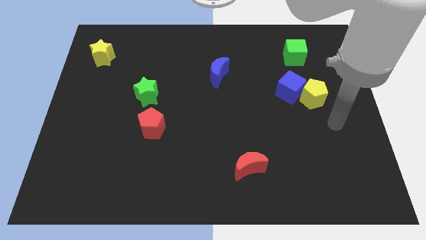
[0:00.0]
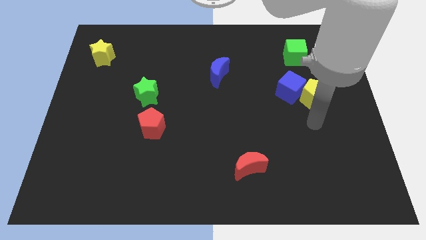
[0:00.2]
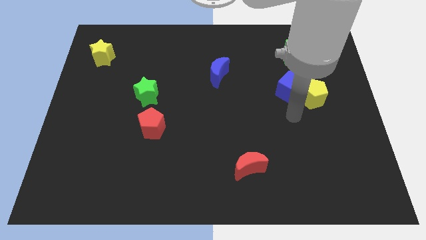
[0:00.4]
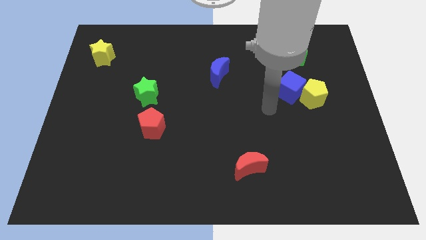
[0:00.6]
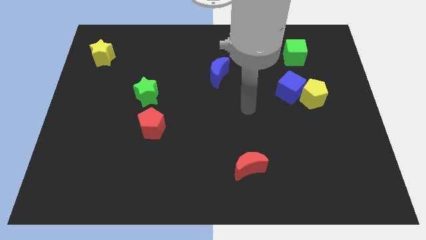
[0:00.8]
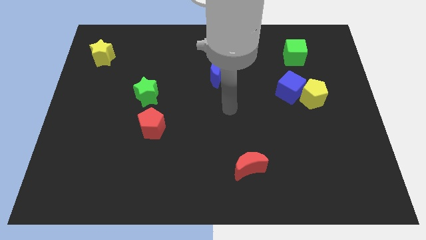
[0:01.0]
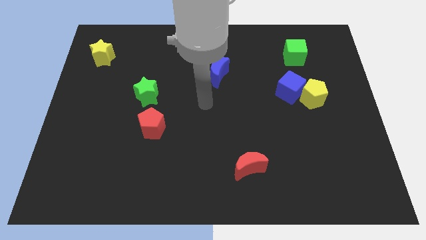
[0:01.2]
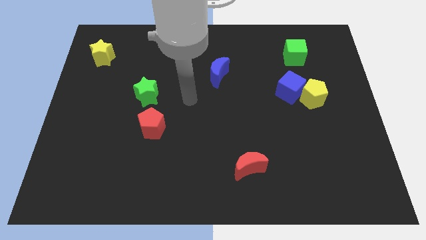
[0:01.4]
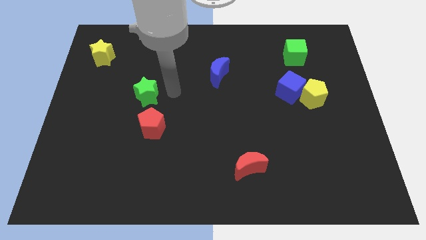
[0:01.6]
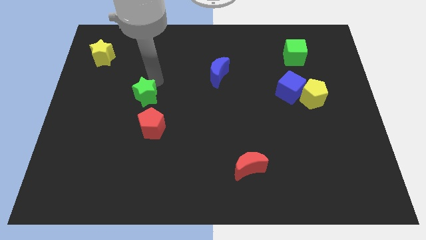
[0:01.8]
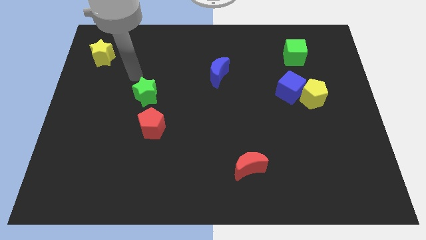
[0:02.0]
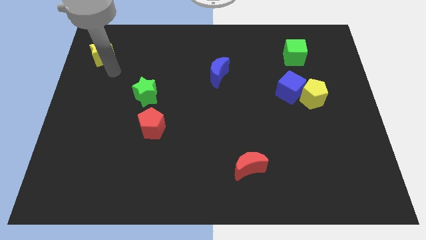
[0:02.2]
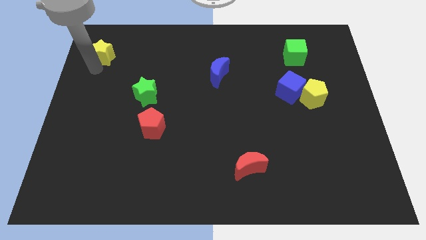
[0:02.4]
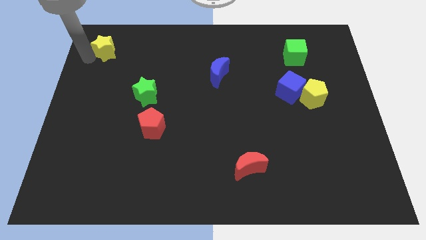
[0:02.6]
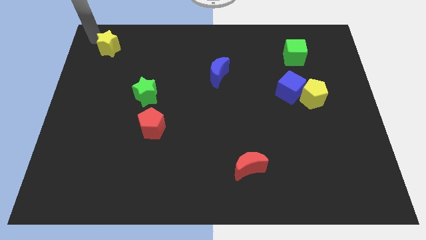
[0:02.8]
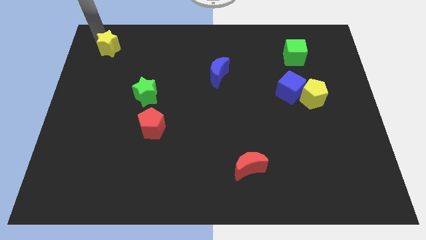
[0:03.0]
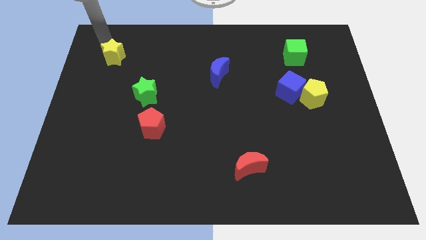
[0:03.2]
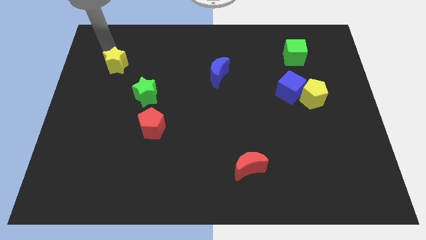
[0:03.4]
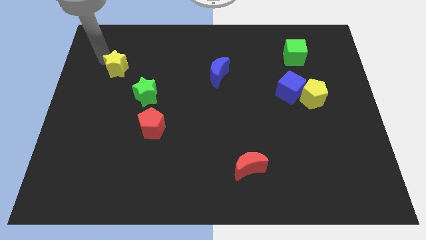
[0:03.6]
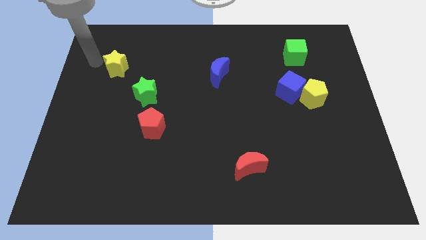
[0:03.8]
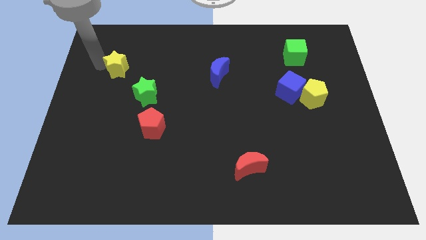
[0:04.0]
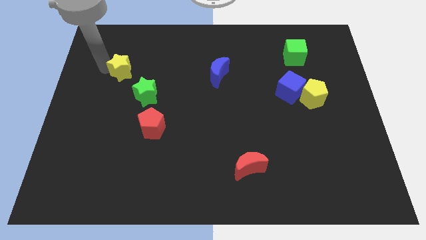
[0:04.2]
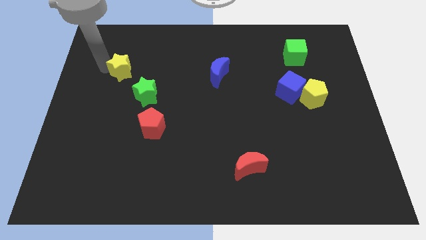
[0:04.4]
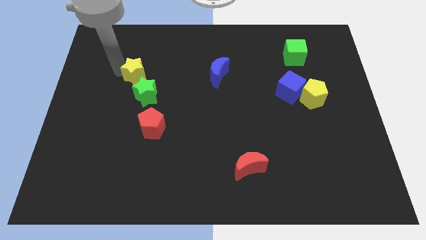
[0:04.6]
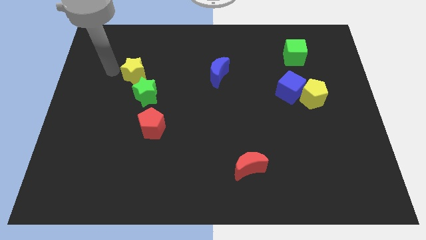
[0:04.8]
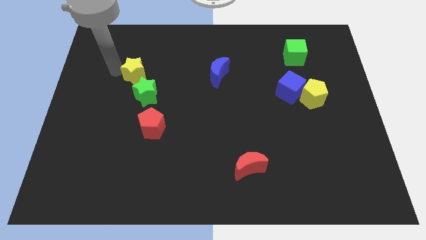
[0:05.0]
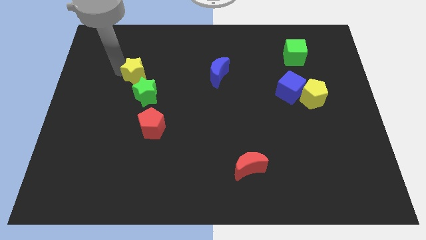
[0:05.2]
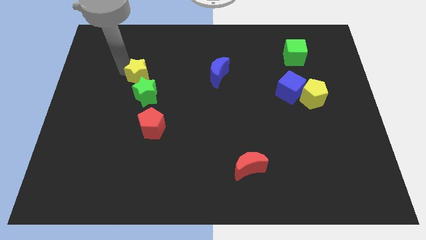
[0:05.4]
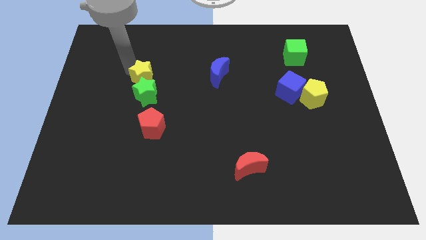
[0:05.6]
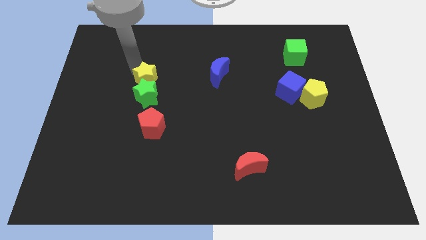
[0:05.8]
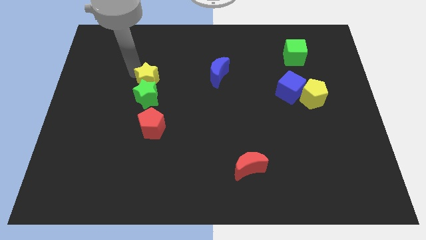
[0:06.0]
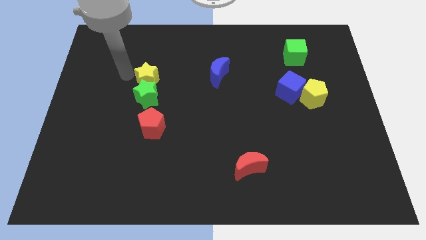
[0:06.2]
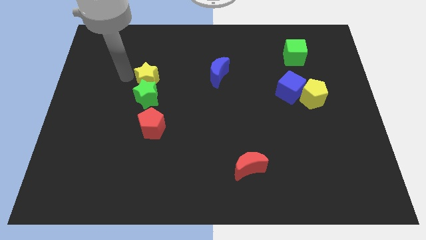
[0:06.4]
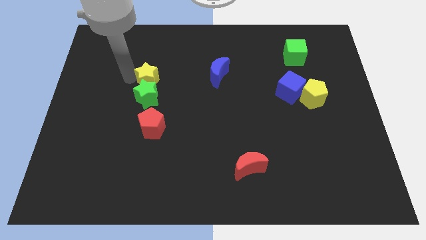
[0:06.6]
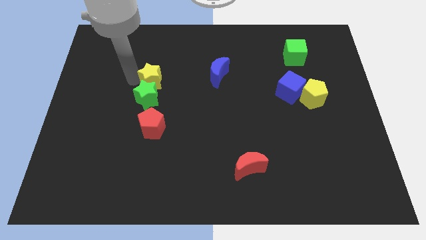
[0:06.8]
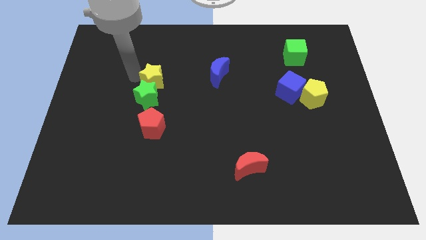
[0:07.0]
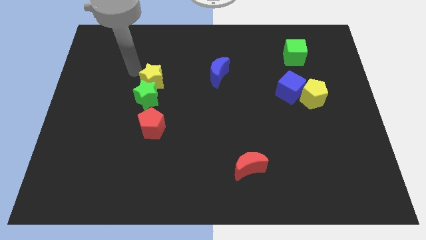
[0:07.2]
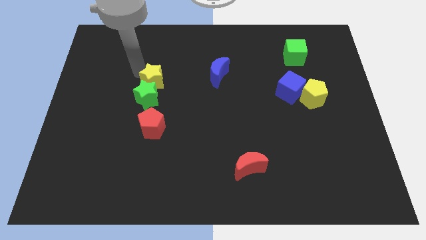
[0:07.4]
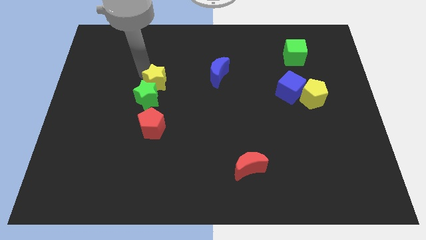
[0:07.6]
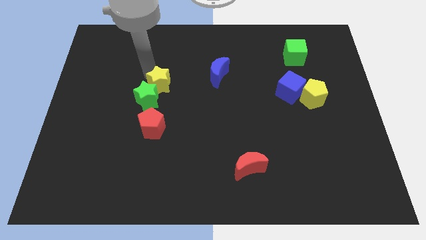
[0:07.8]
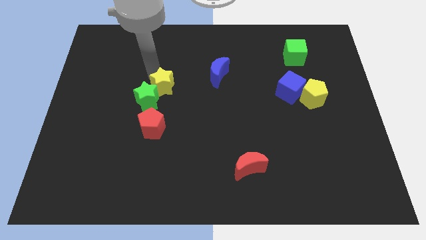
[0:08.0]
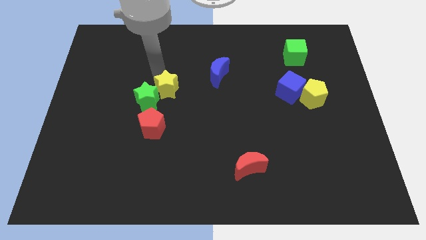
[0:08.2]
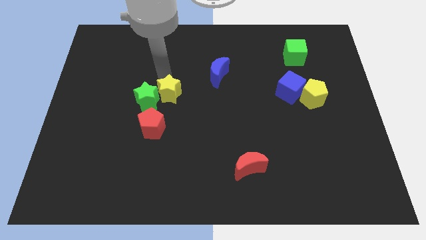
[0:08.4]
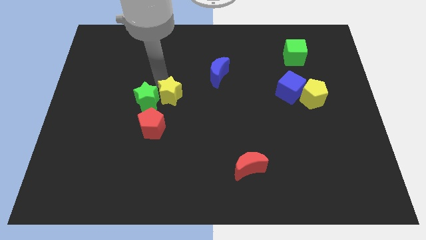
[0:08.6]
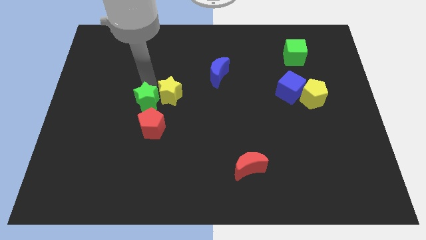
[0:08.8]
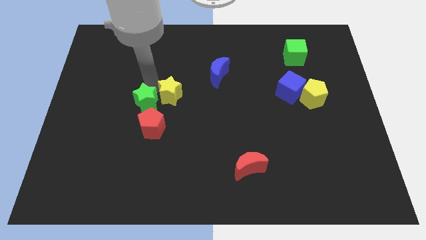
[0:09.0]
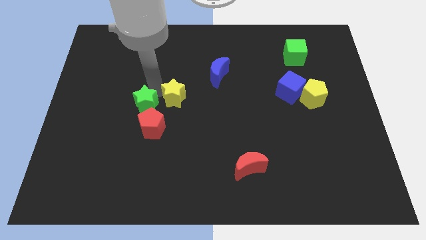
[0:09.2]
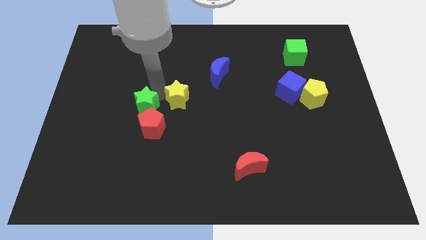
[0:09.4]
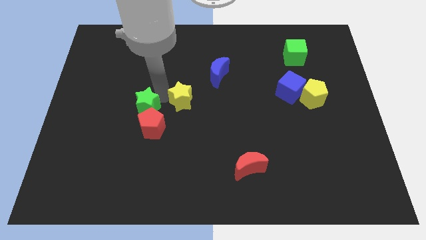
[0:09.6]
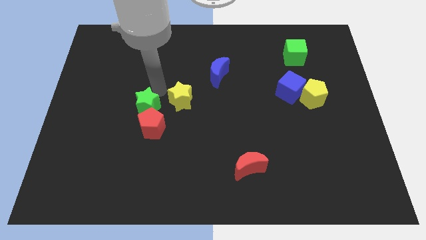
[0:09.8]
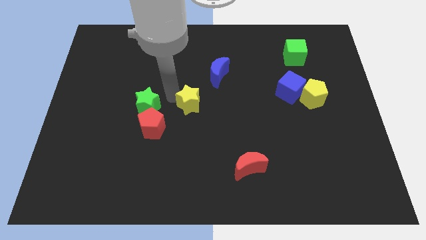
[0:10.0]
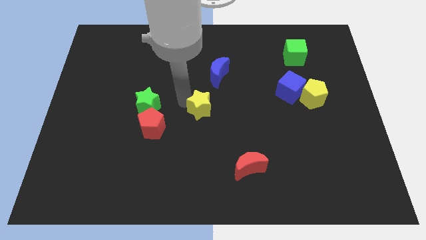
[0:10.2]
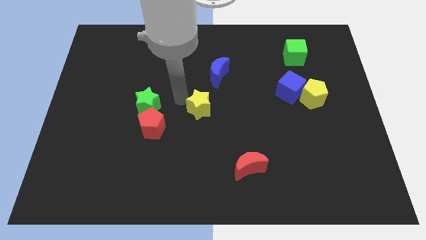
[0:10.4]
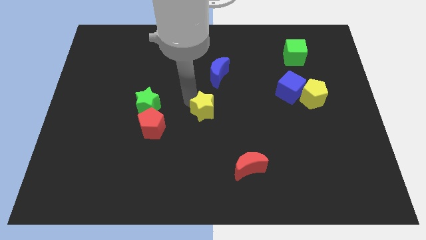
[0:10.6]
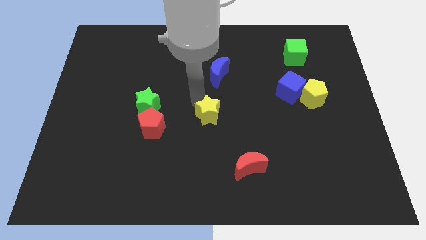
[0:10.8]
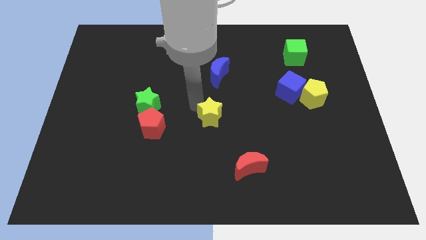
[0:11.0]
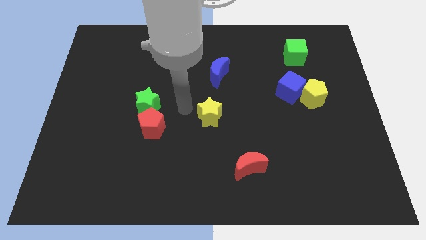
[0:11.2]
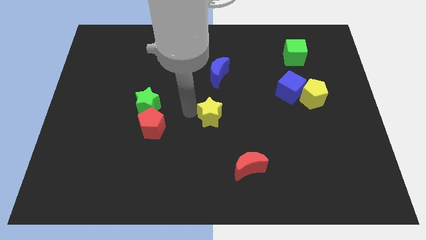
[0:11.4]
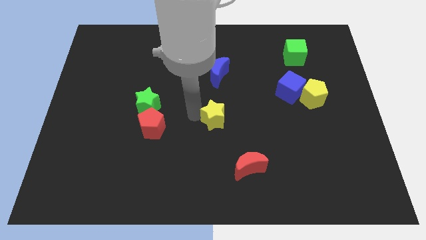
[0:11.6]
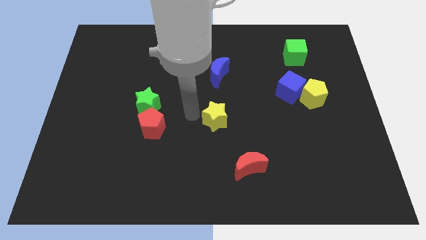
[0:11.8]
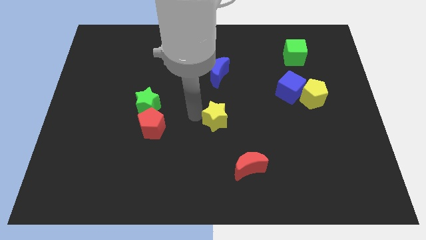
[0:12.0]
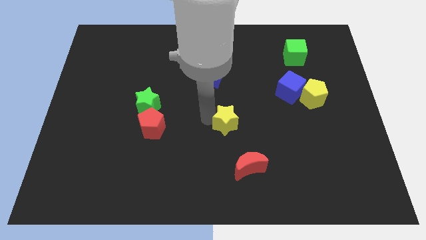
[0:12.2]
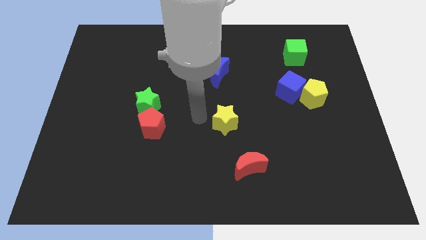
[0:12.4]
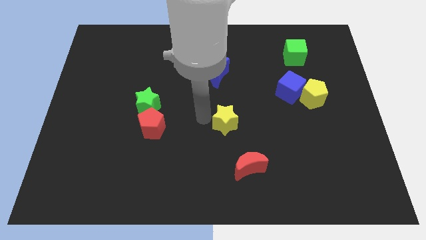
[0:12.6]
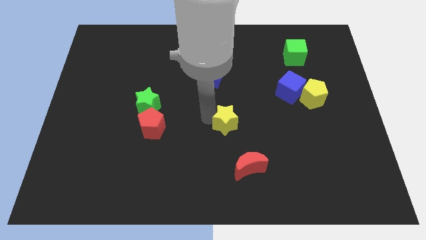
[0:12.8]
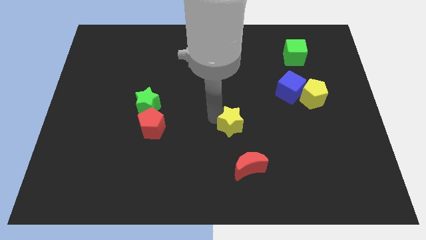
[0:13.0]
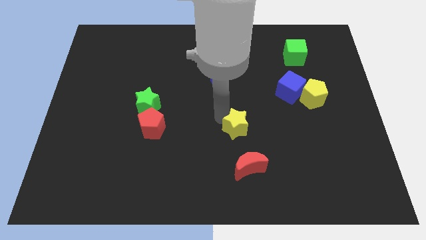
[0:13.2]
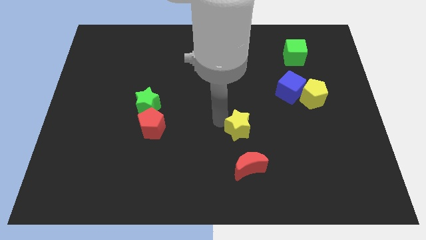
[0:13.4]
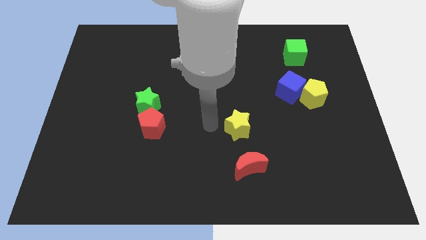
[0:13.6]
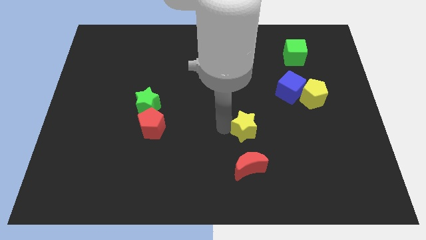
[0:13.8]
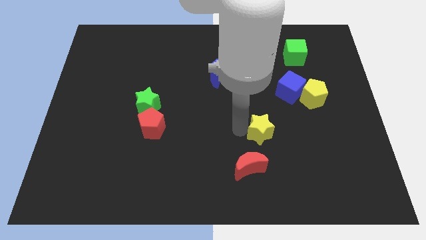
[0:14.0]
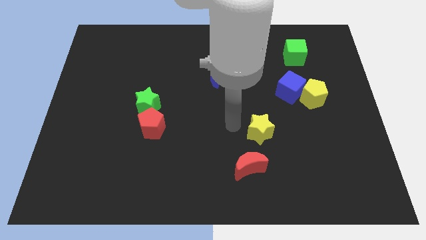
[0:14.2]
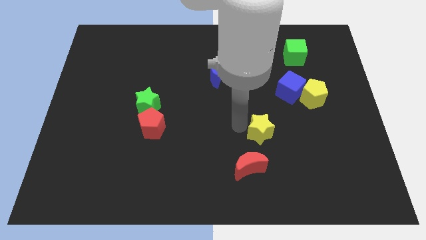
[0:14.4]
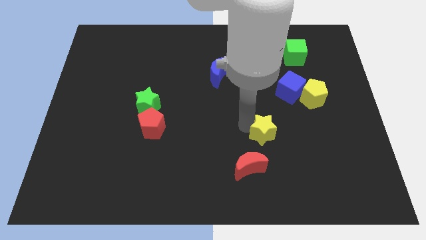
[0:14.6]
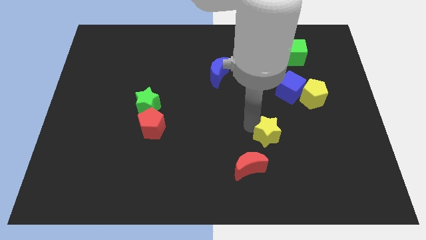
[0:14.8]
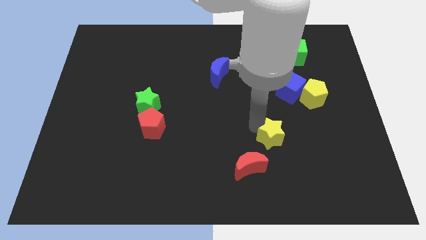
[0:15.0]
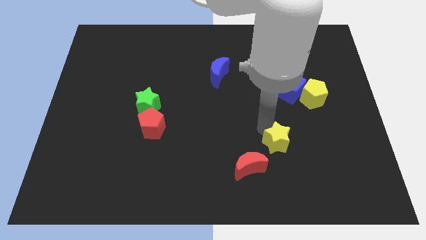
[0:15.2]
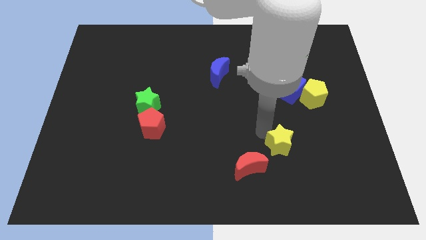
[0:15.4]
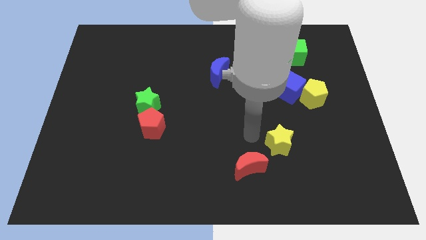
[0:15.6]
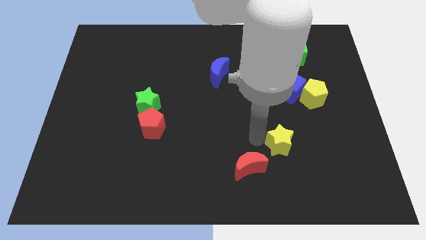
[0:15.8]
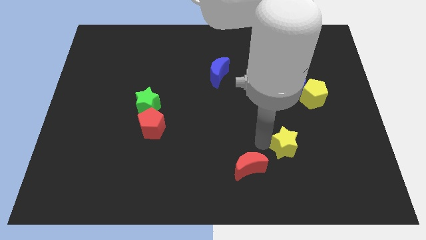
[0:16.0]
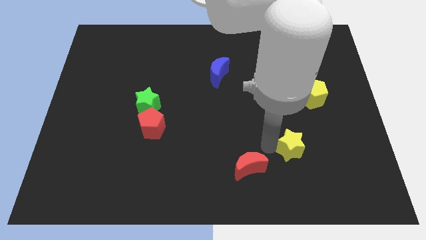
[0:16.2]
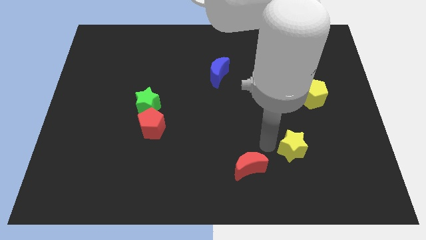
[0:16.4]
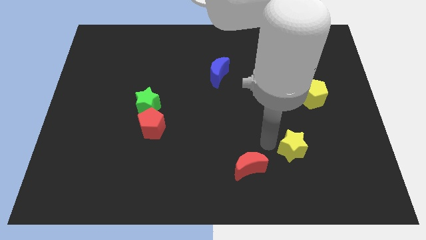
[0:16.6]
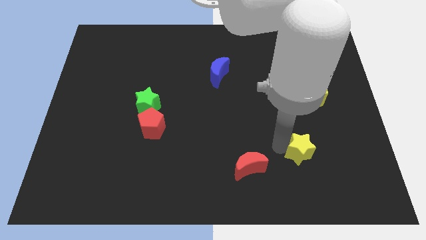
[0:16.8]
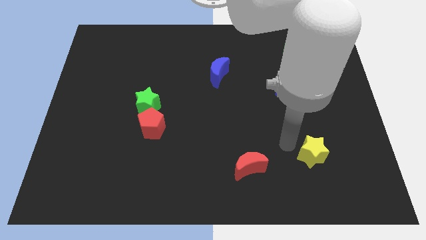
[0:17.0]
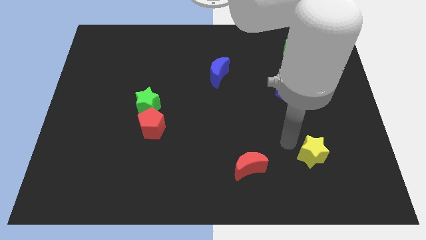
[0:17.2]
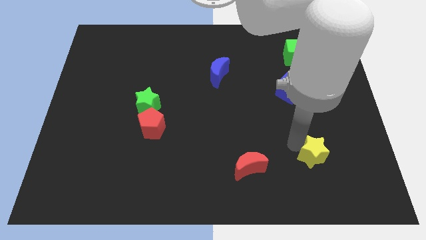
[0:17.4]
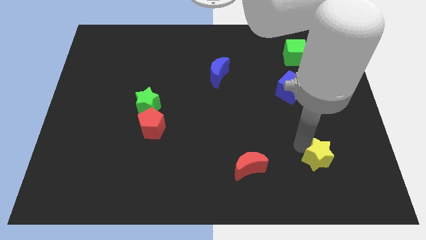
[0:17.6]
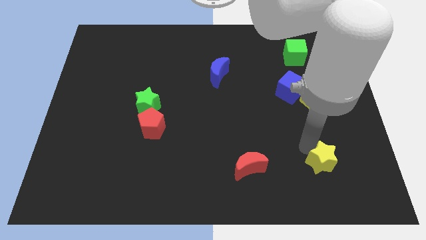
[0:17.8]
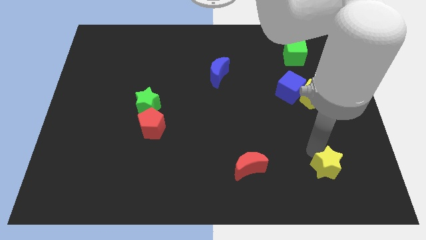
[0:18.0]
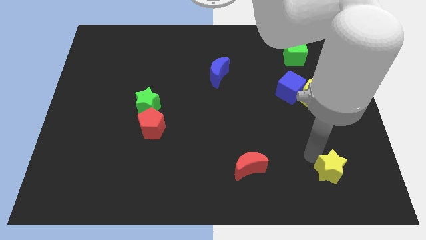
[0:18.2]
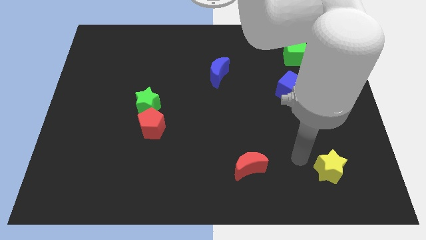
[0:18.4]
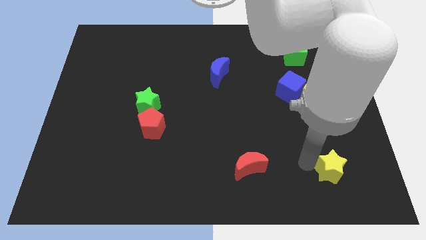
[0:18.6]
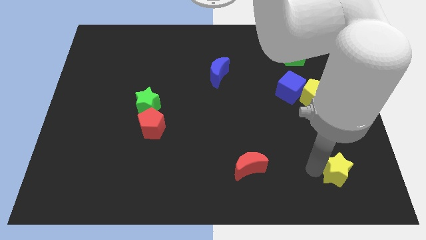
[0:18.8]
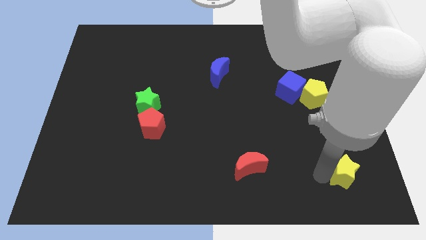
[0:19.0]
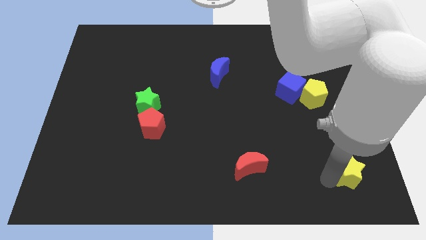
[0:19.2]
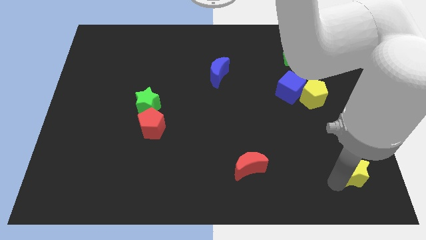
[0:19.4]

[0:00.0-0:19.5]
put the yellow star to the bottom right of the board
